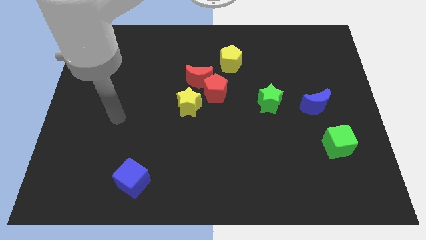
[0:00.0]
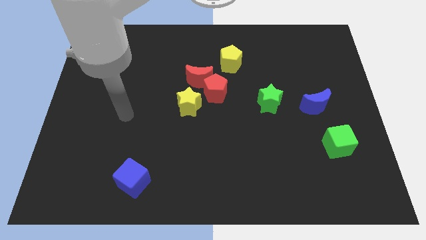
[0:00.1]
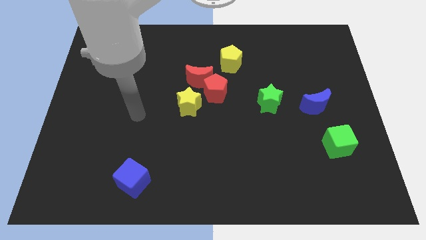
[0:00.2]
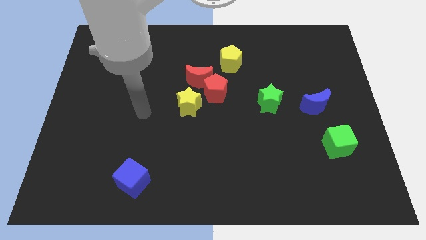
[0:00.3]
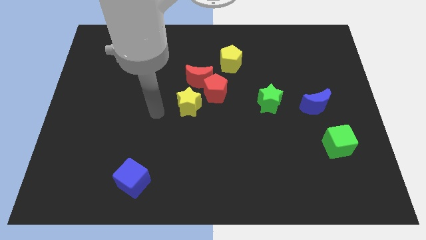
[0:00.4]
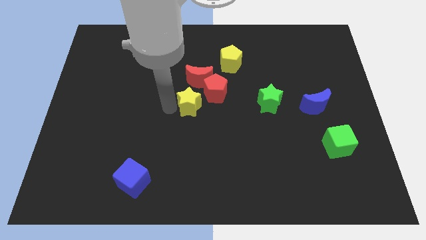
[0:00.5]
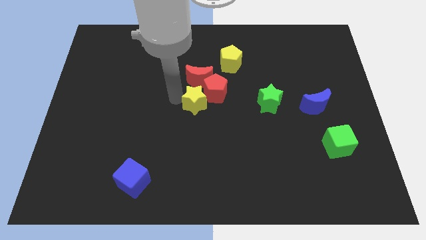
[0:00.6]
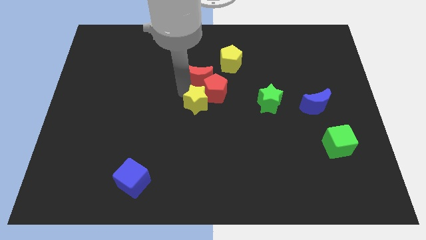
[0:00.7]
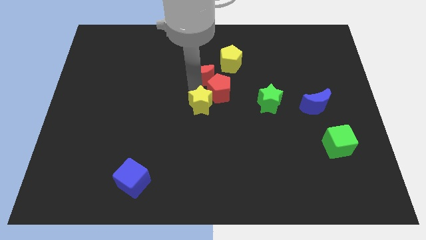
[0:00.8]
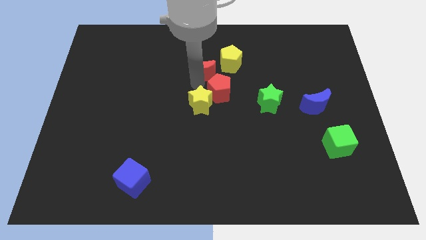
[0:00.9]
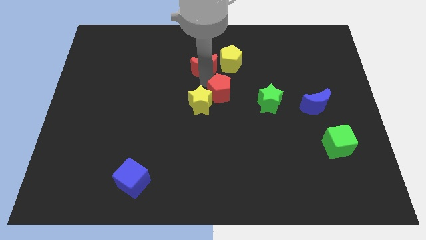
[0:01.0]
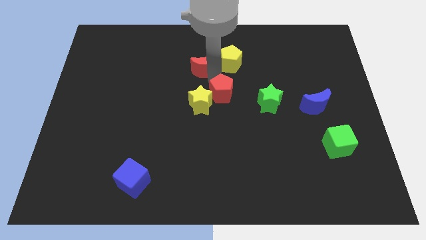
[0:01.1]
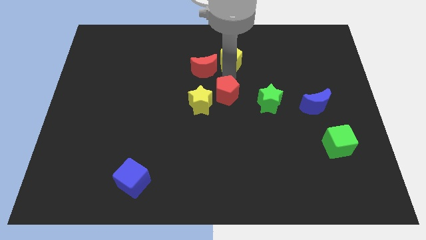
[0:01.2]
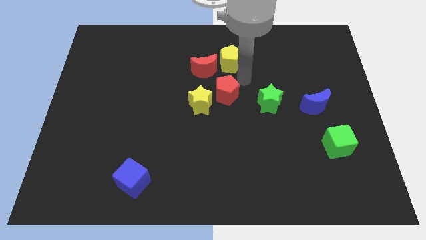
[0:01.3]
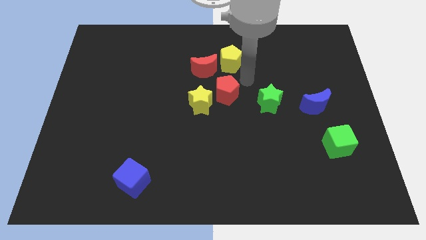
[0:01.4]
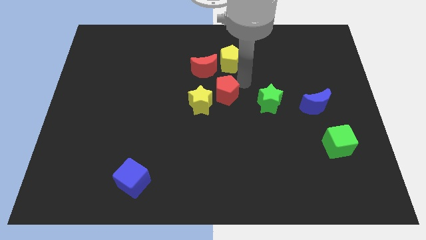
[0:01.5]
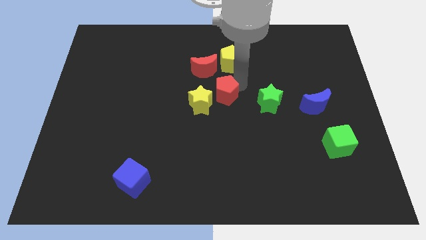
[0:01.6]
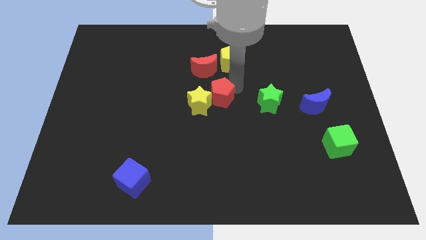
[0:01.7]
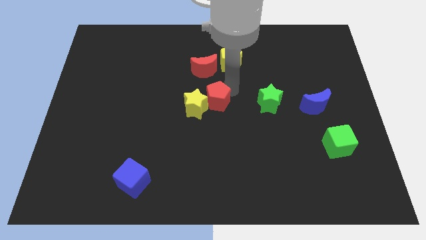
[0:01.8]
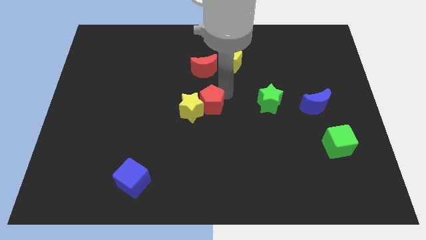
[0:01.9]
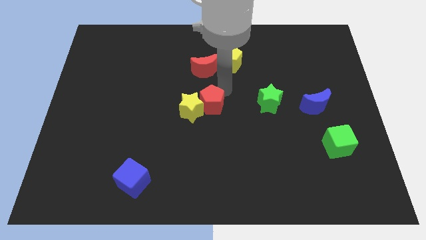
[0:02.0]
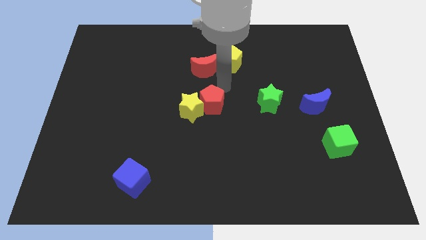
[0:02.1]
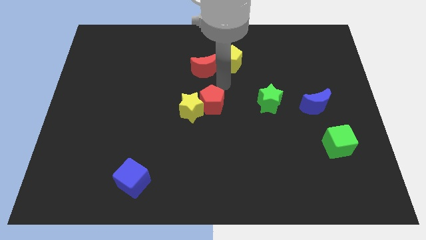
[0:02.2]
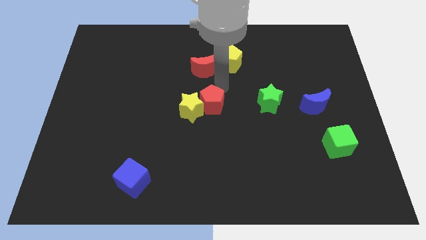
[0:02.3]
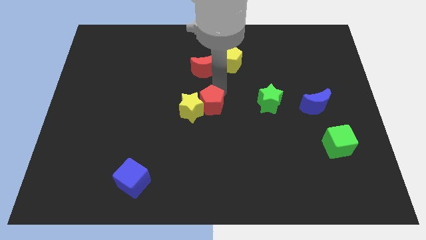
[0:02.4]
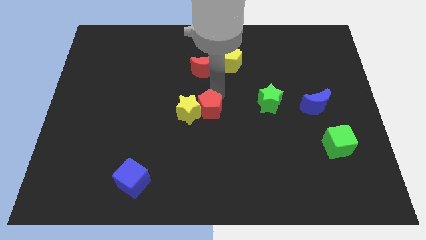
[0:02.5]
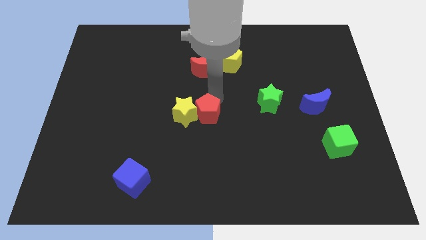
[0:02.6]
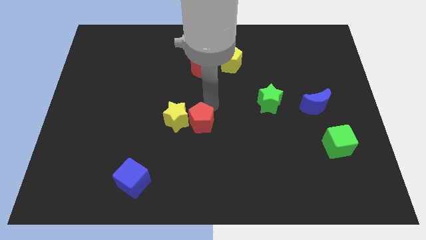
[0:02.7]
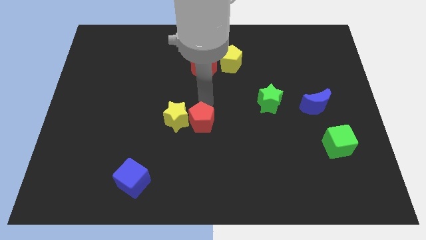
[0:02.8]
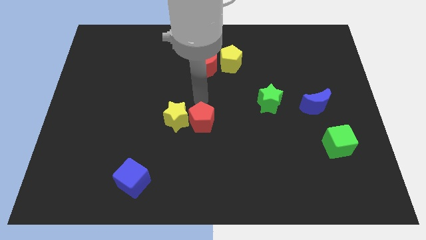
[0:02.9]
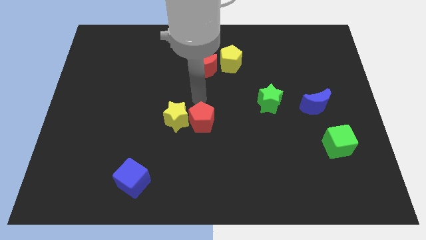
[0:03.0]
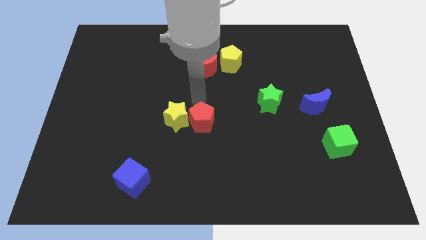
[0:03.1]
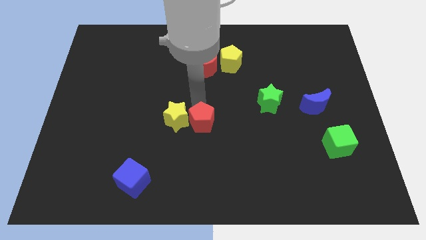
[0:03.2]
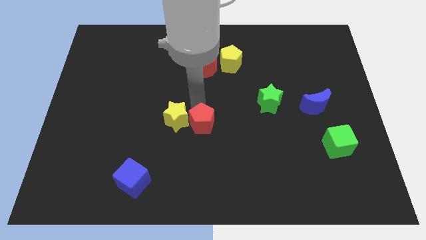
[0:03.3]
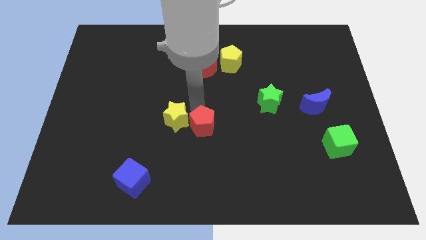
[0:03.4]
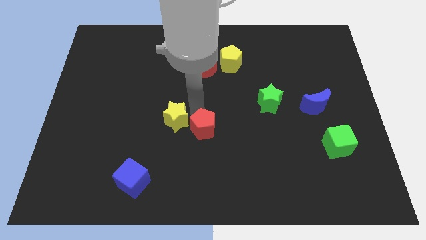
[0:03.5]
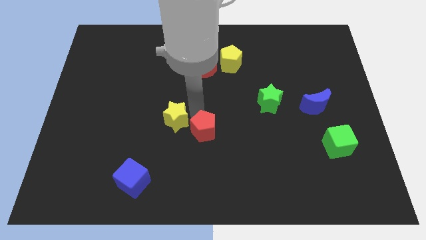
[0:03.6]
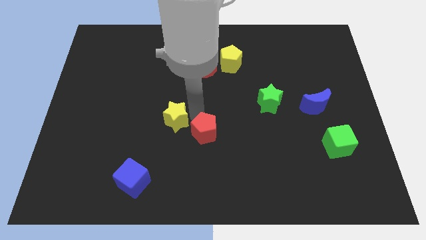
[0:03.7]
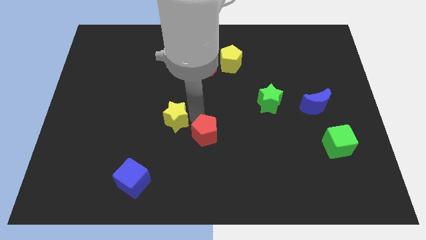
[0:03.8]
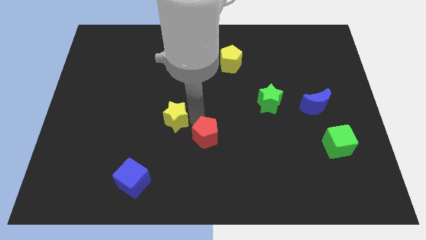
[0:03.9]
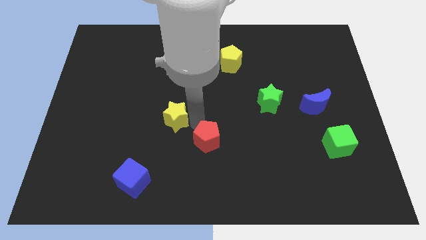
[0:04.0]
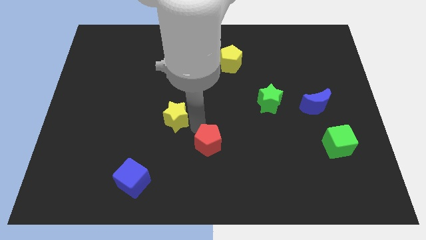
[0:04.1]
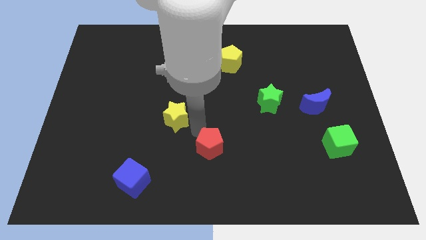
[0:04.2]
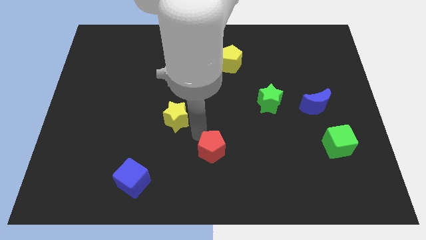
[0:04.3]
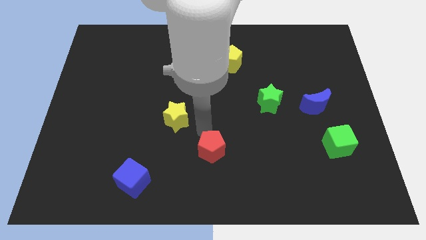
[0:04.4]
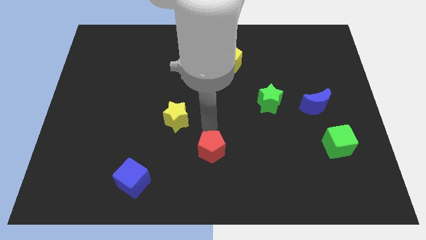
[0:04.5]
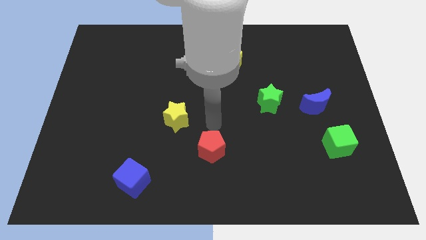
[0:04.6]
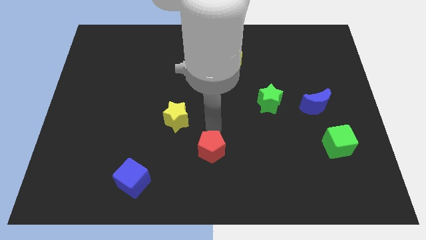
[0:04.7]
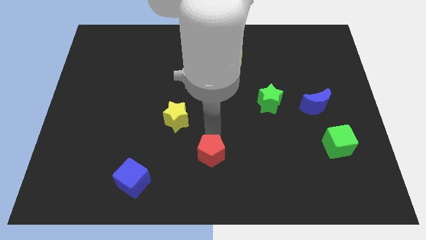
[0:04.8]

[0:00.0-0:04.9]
put the red pentagon to the bottom side

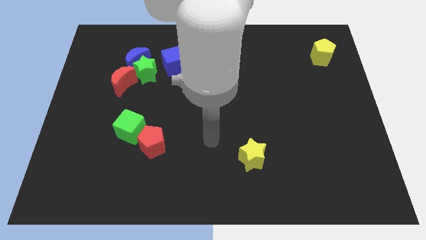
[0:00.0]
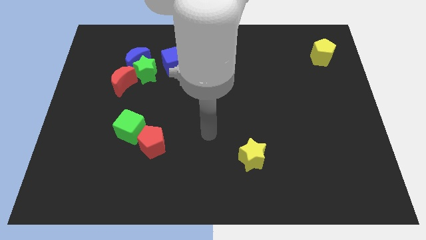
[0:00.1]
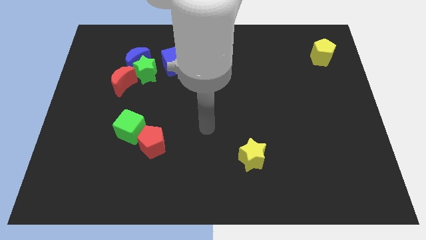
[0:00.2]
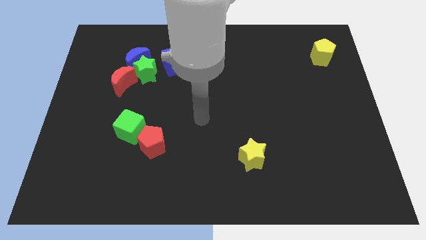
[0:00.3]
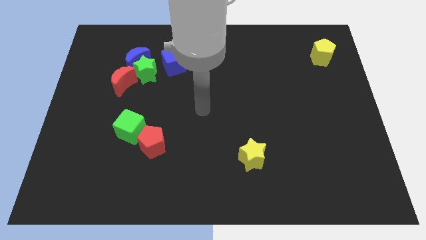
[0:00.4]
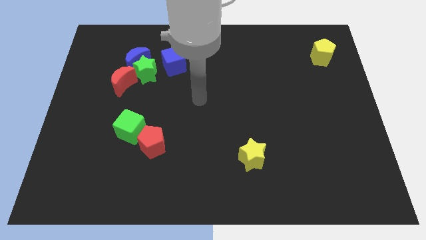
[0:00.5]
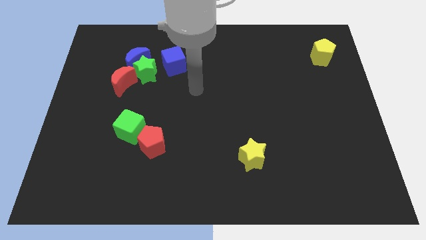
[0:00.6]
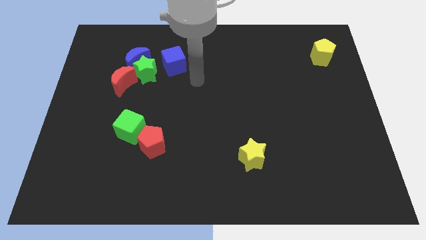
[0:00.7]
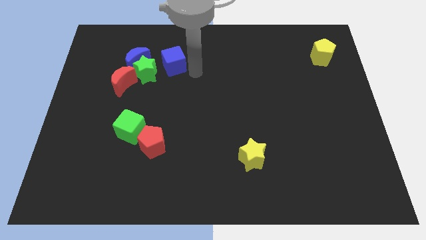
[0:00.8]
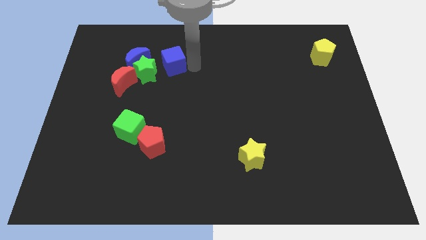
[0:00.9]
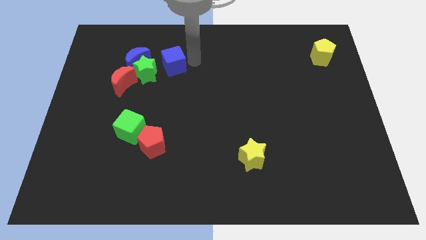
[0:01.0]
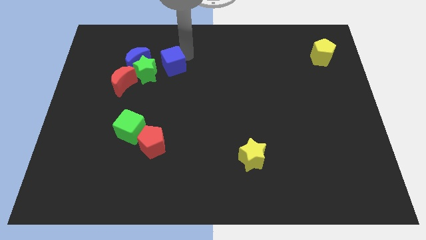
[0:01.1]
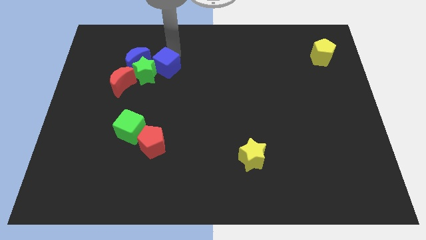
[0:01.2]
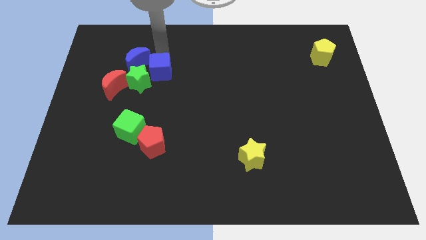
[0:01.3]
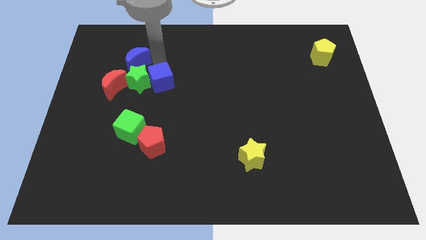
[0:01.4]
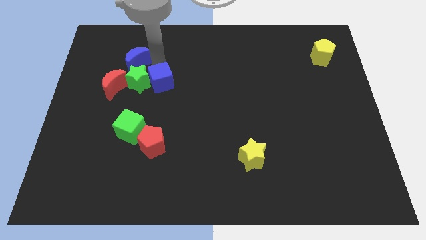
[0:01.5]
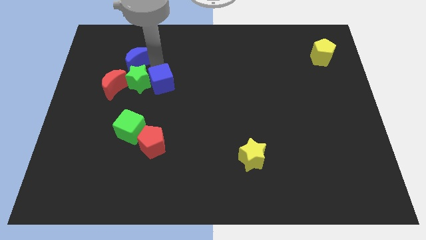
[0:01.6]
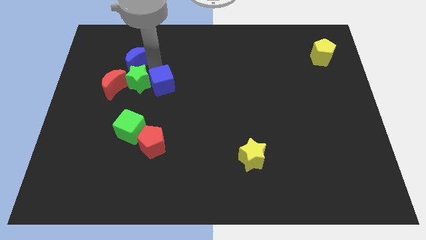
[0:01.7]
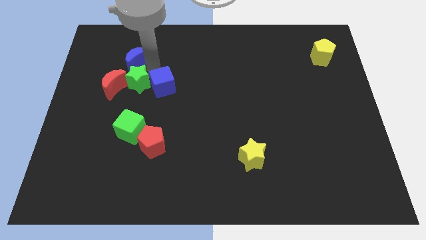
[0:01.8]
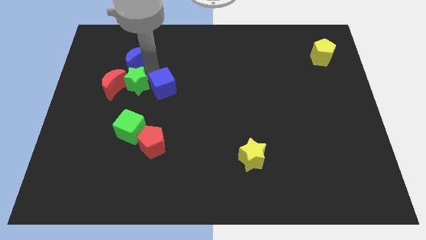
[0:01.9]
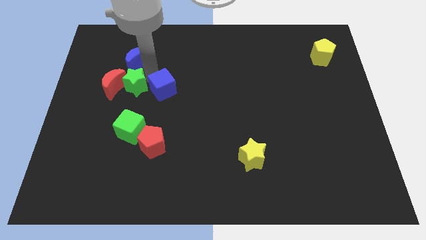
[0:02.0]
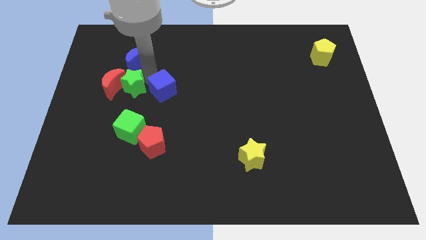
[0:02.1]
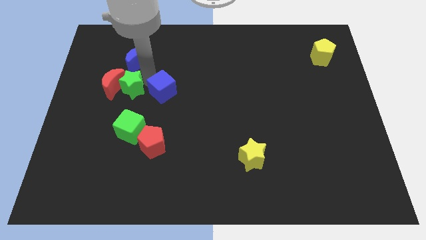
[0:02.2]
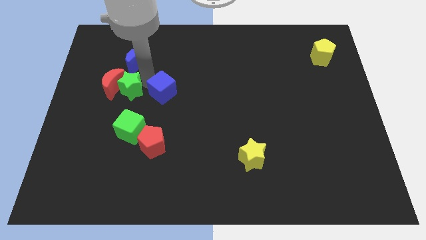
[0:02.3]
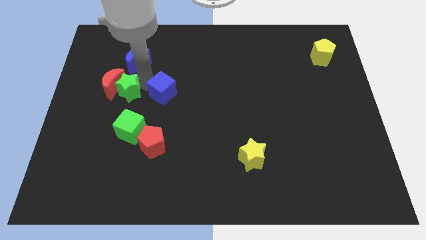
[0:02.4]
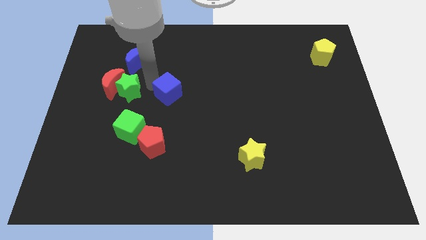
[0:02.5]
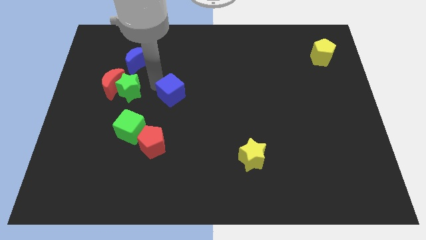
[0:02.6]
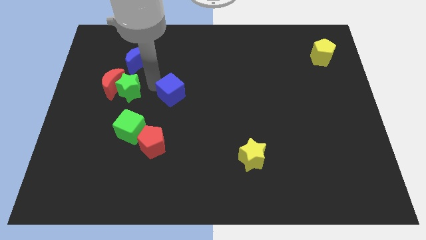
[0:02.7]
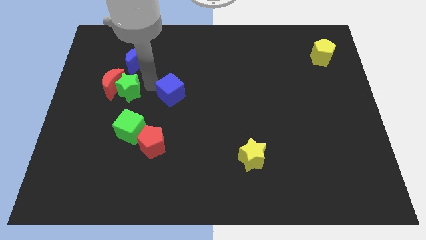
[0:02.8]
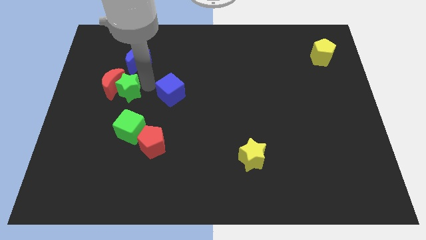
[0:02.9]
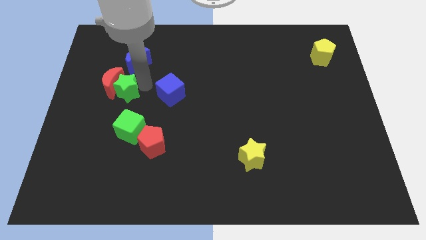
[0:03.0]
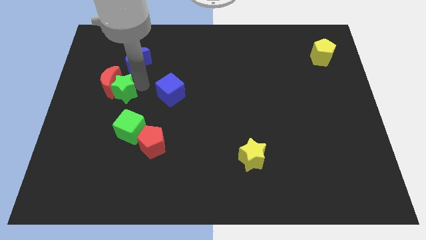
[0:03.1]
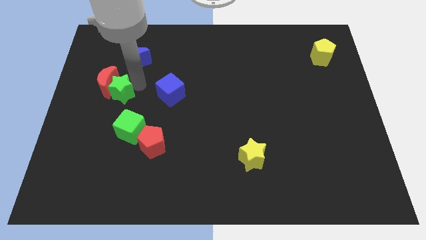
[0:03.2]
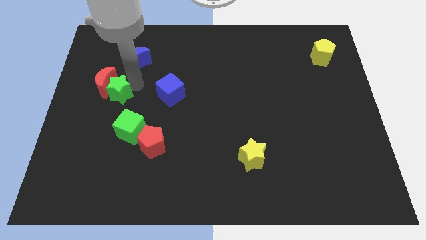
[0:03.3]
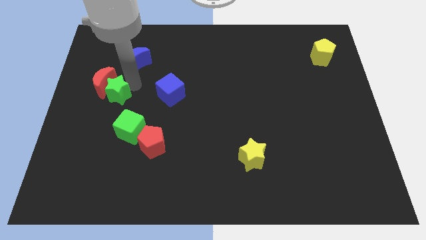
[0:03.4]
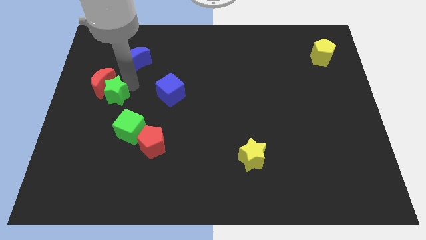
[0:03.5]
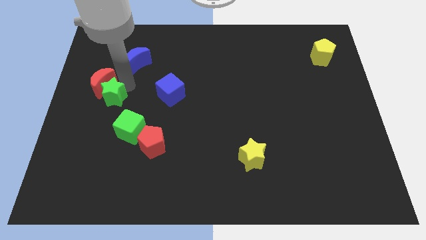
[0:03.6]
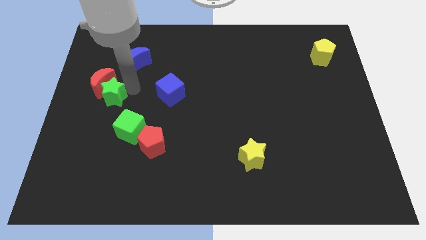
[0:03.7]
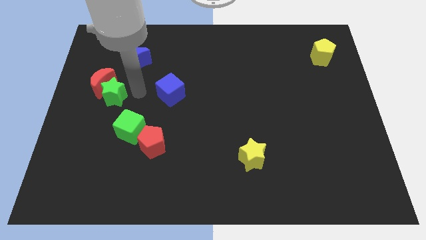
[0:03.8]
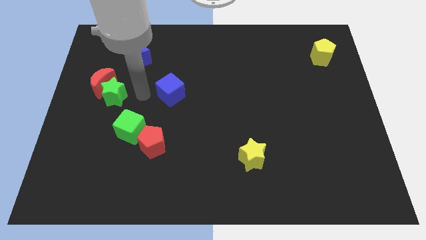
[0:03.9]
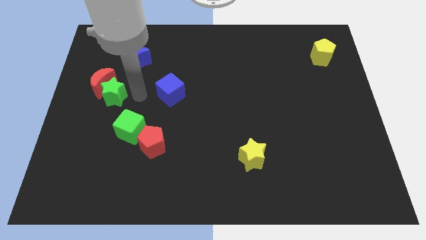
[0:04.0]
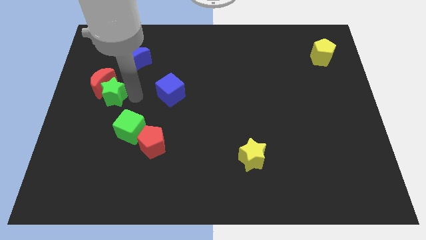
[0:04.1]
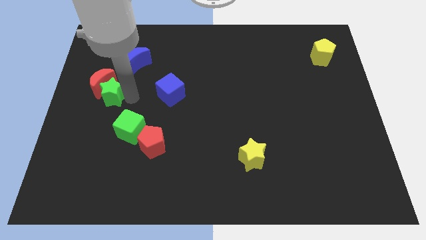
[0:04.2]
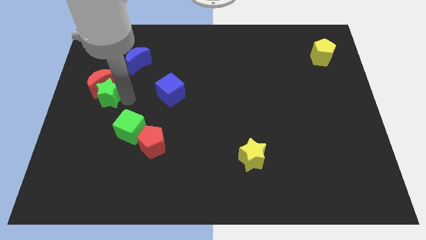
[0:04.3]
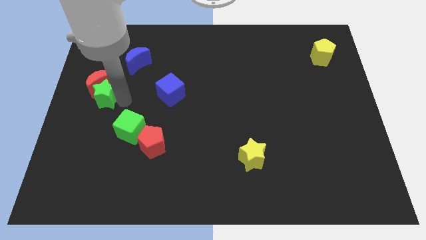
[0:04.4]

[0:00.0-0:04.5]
move the green star to the left side of the board
